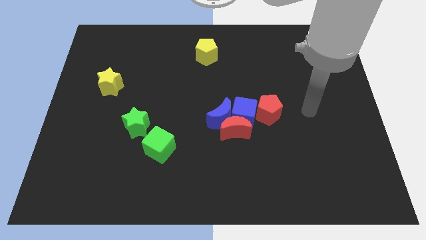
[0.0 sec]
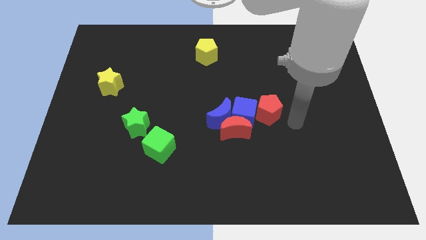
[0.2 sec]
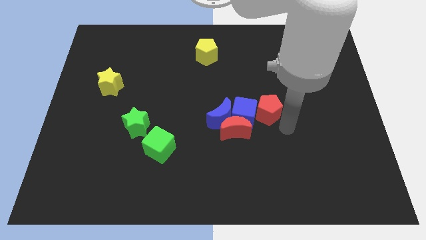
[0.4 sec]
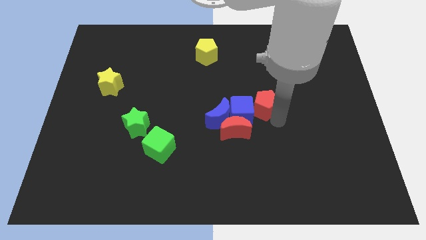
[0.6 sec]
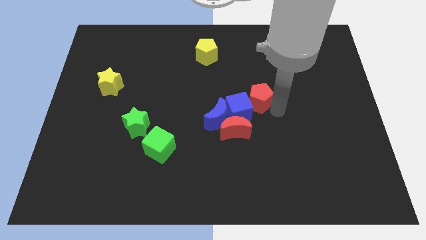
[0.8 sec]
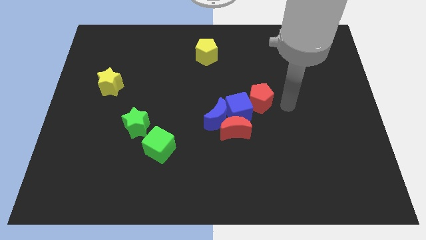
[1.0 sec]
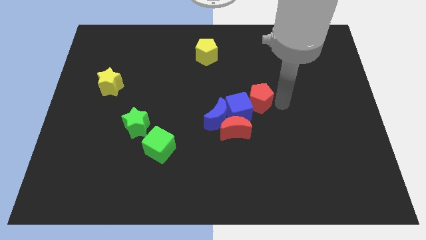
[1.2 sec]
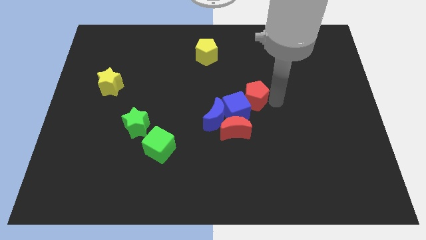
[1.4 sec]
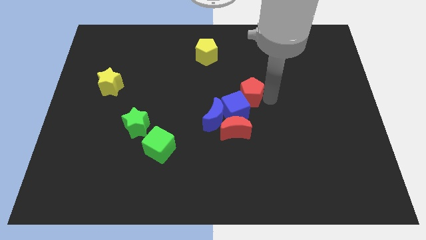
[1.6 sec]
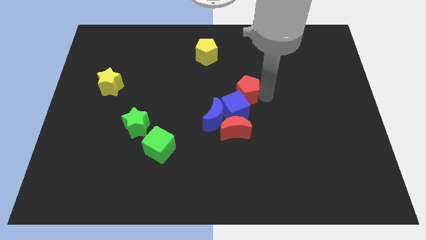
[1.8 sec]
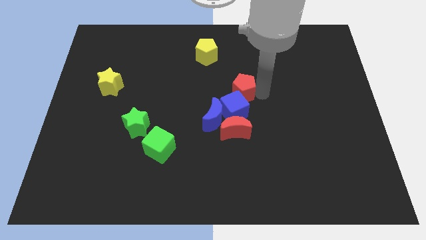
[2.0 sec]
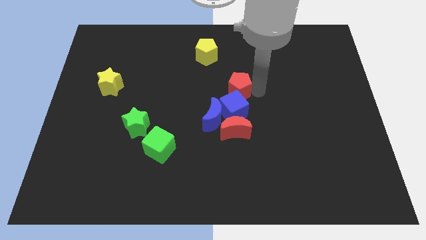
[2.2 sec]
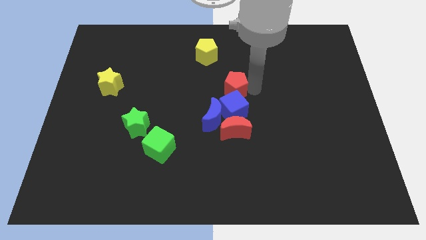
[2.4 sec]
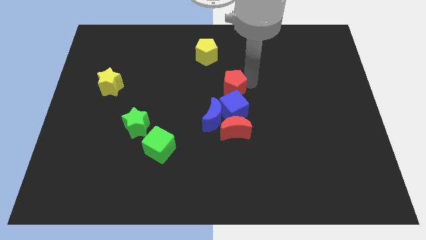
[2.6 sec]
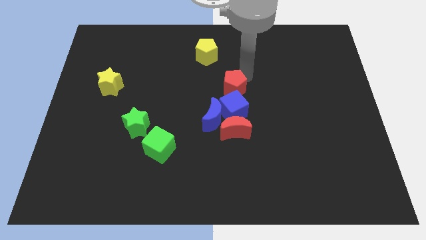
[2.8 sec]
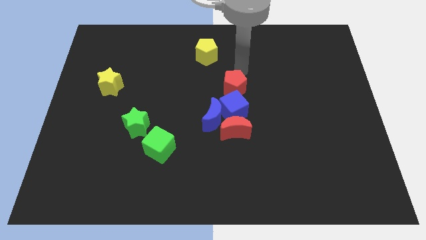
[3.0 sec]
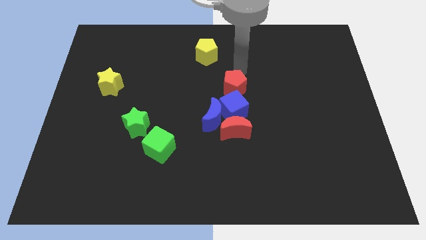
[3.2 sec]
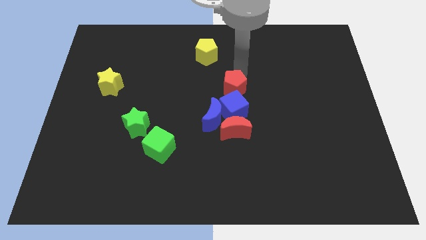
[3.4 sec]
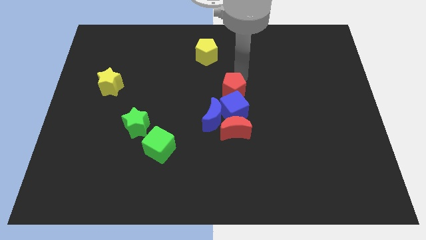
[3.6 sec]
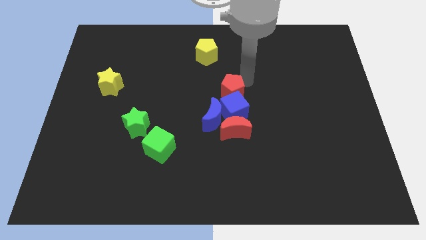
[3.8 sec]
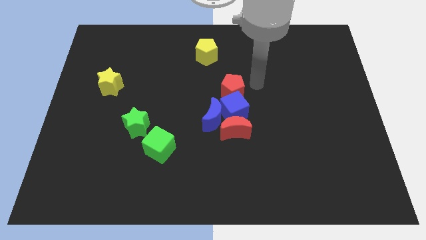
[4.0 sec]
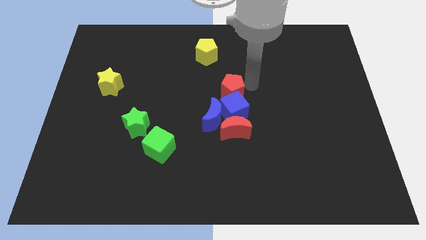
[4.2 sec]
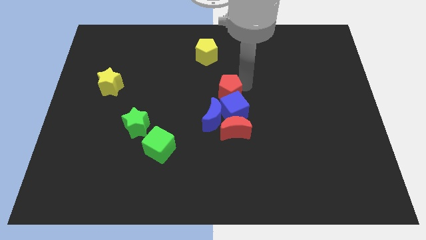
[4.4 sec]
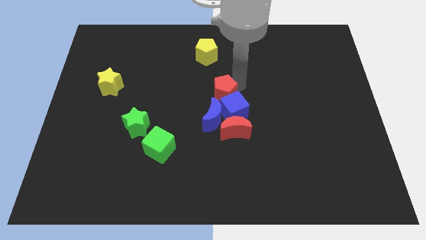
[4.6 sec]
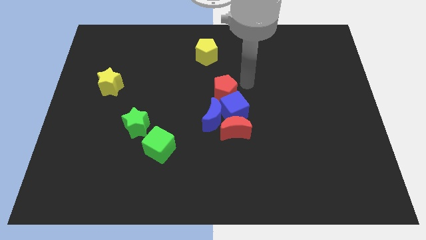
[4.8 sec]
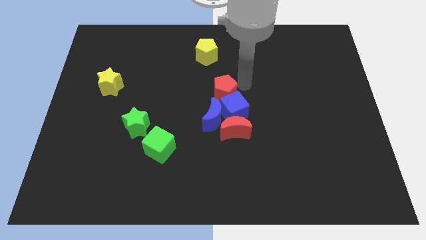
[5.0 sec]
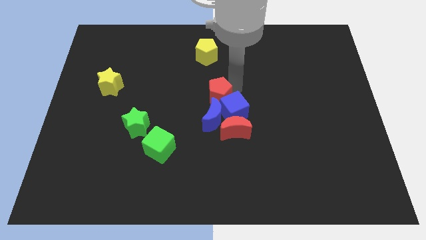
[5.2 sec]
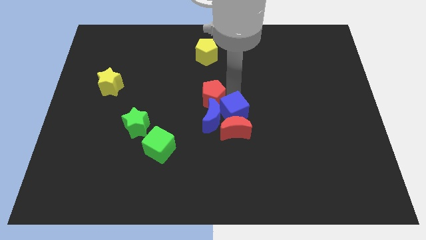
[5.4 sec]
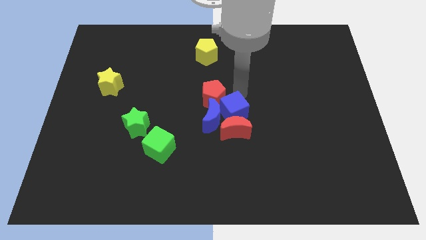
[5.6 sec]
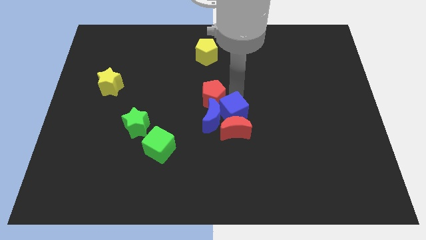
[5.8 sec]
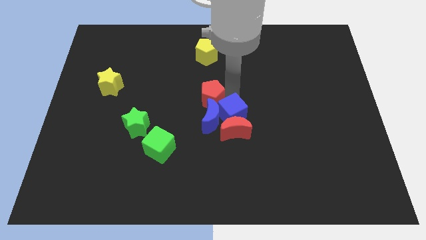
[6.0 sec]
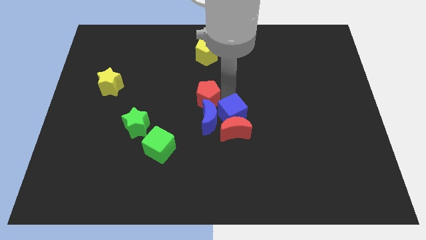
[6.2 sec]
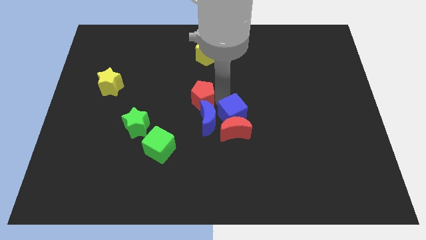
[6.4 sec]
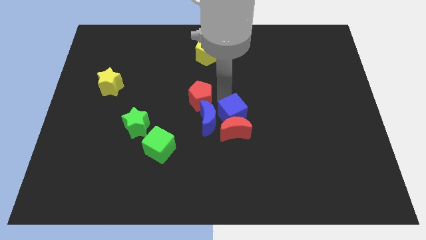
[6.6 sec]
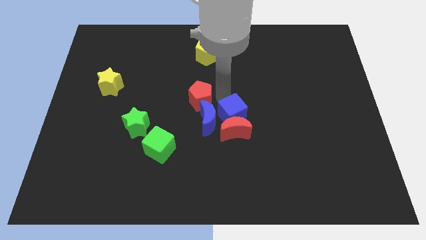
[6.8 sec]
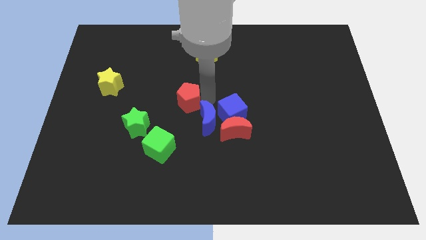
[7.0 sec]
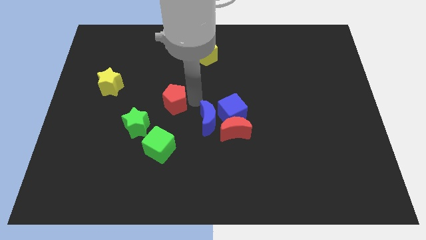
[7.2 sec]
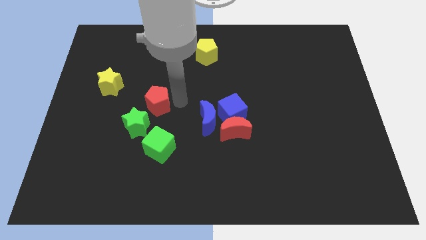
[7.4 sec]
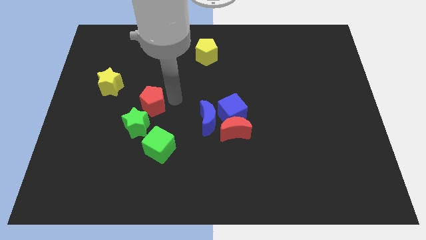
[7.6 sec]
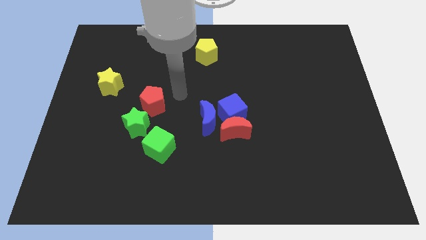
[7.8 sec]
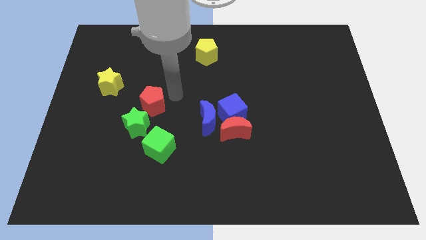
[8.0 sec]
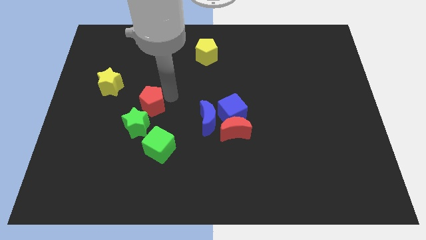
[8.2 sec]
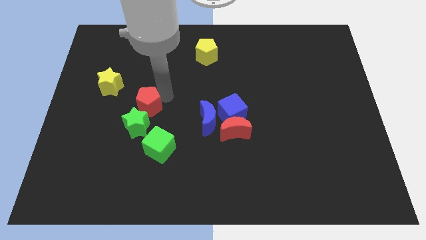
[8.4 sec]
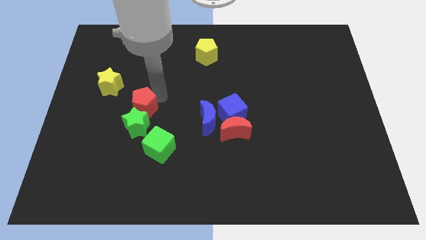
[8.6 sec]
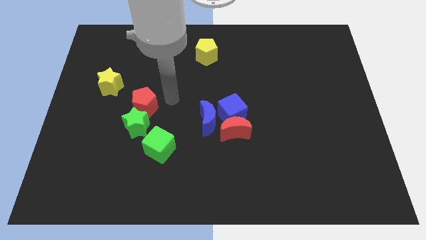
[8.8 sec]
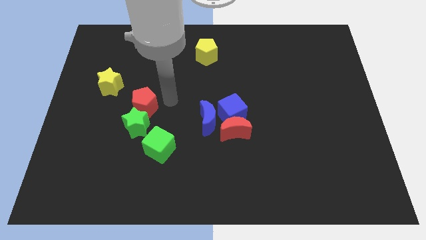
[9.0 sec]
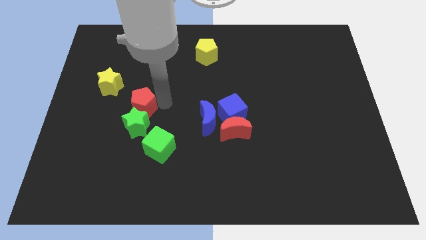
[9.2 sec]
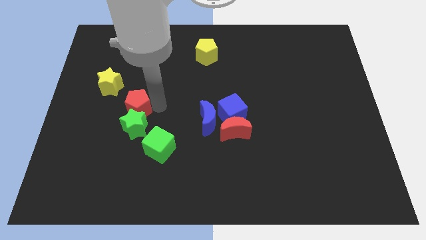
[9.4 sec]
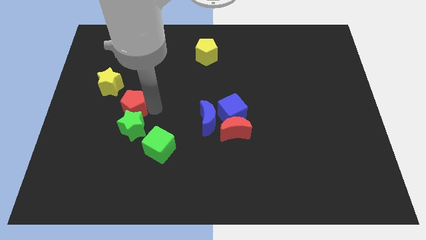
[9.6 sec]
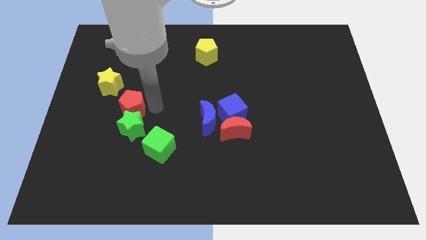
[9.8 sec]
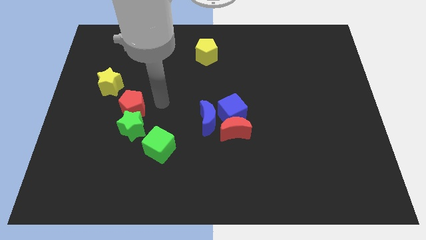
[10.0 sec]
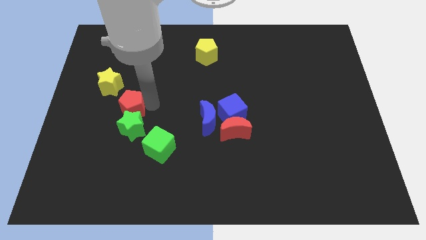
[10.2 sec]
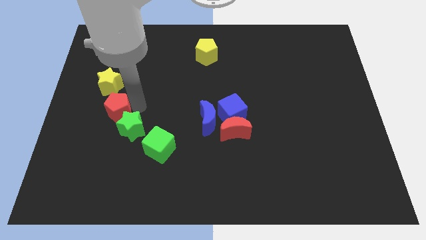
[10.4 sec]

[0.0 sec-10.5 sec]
push the red pentagon to the bottom side of the yellow star

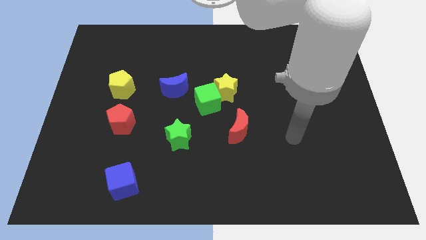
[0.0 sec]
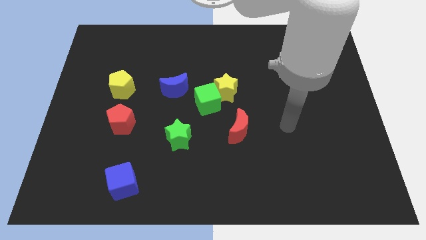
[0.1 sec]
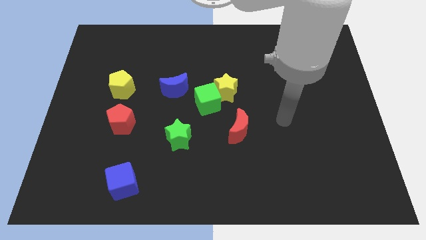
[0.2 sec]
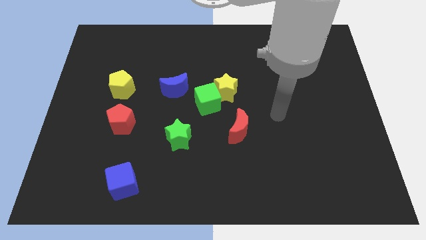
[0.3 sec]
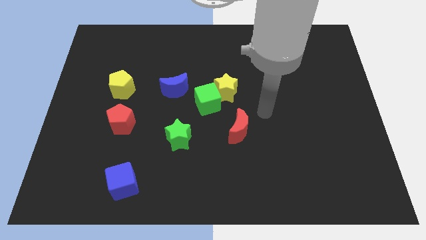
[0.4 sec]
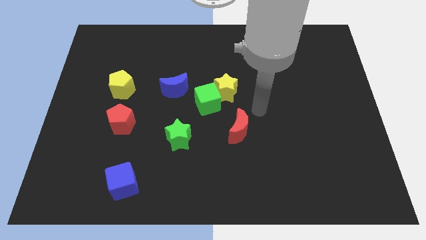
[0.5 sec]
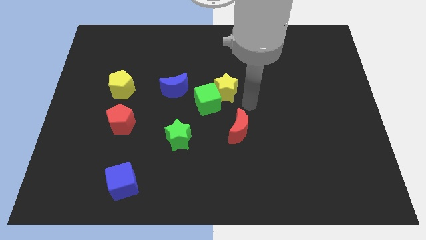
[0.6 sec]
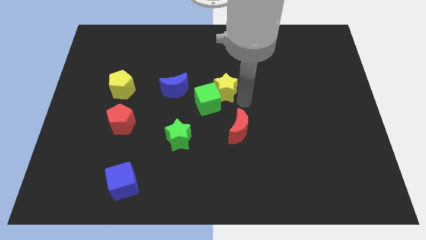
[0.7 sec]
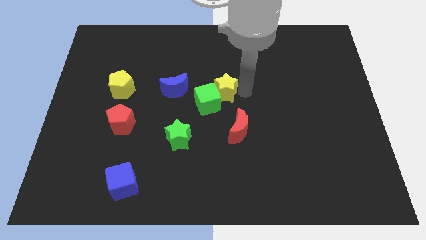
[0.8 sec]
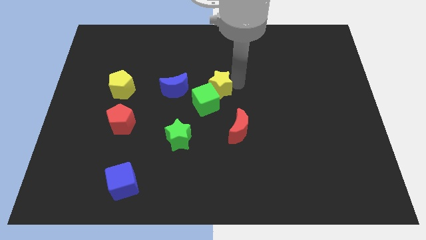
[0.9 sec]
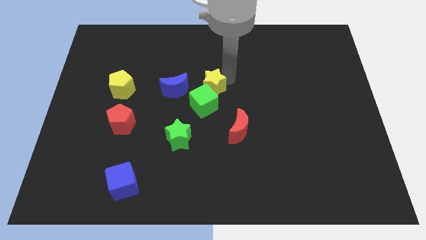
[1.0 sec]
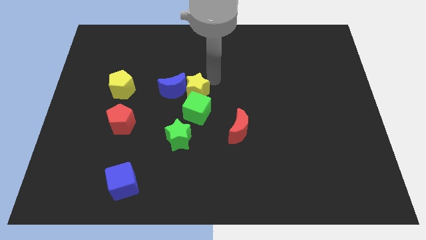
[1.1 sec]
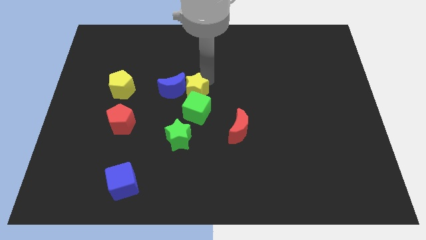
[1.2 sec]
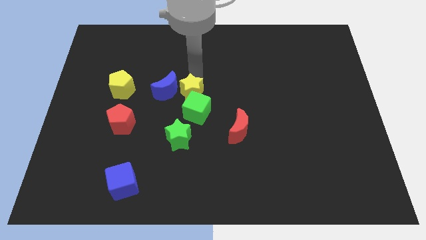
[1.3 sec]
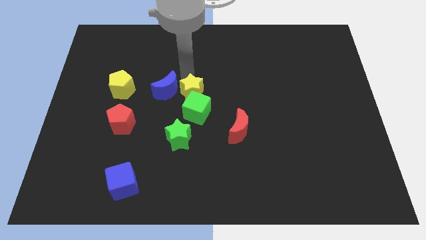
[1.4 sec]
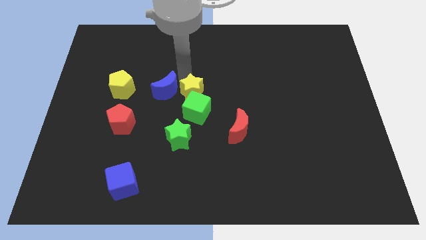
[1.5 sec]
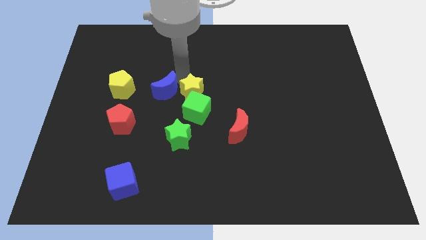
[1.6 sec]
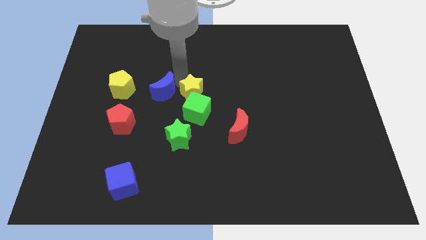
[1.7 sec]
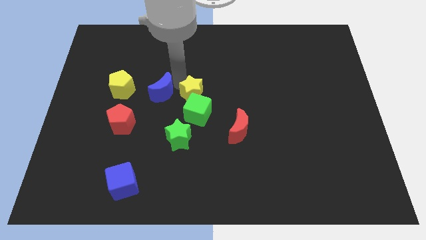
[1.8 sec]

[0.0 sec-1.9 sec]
slide the blue moon to the top right of the red pentagon

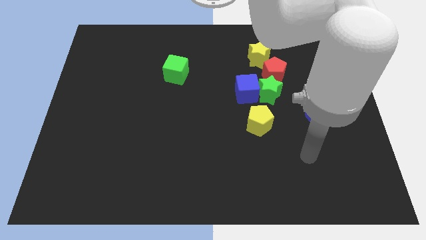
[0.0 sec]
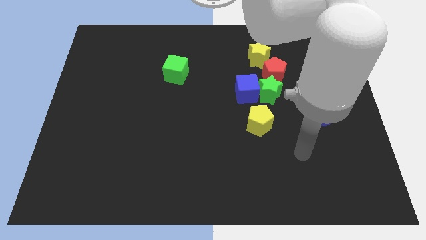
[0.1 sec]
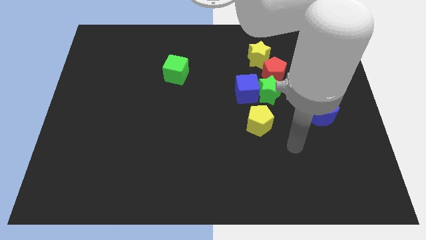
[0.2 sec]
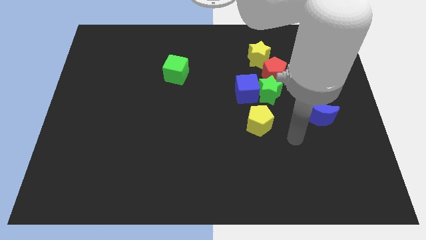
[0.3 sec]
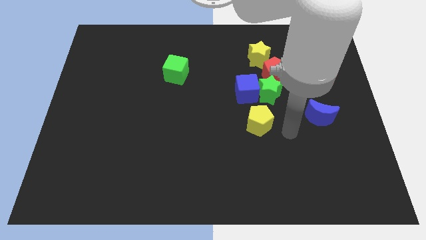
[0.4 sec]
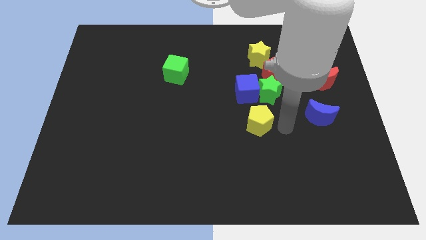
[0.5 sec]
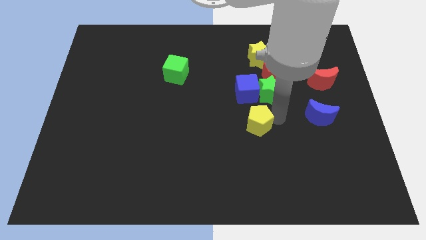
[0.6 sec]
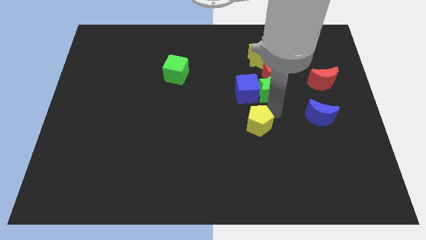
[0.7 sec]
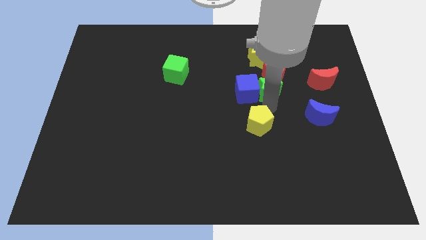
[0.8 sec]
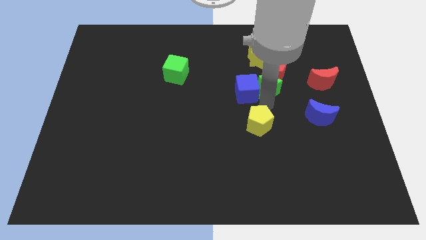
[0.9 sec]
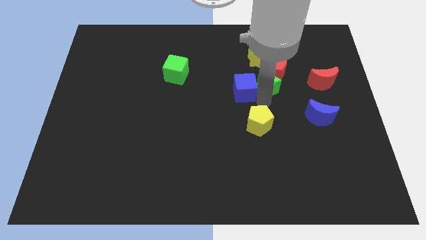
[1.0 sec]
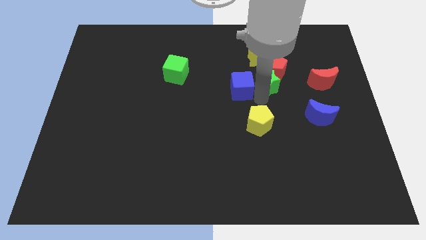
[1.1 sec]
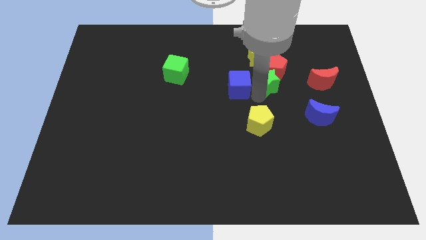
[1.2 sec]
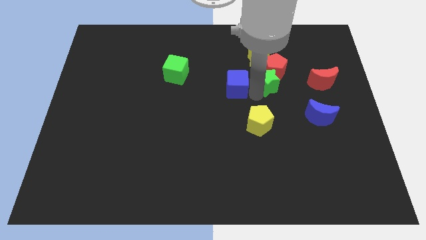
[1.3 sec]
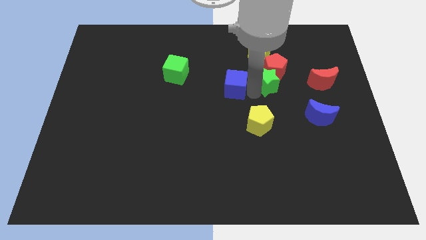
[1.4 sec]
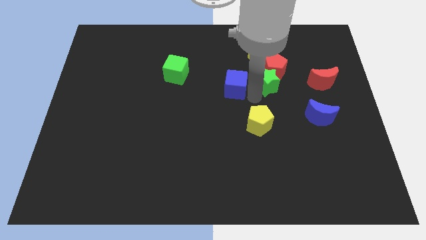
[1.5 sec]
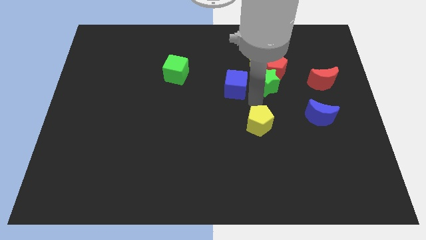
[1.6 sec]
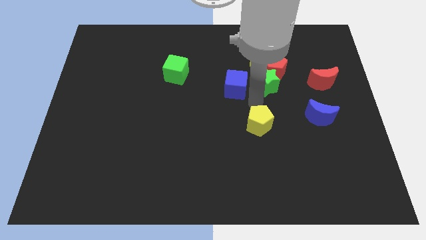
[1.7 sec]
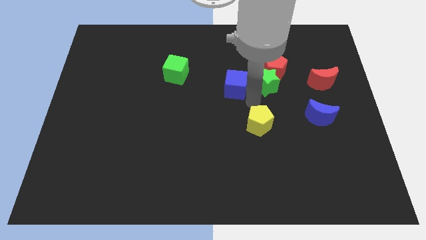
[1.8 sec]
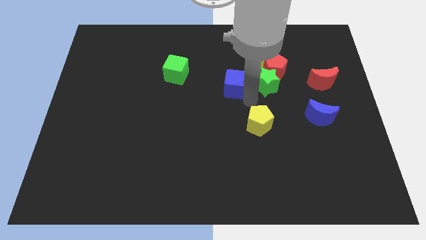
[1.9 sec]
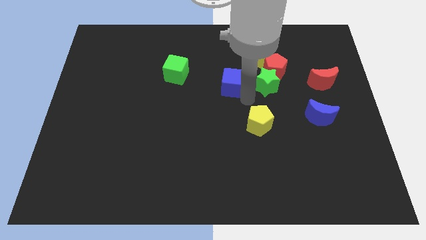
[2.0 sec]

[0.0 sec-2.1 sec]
slide the blue cube right of the green cube
